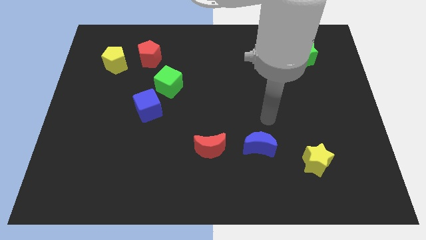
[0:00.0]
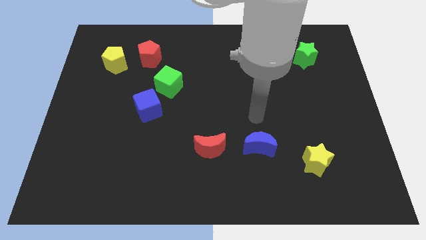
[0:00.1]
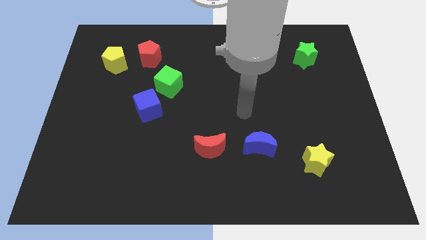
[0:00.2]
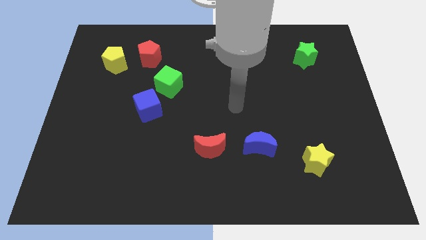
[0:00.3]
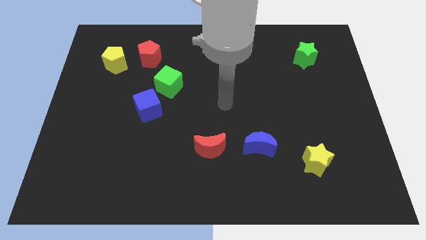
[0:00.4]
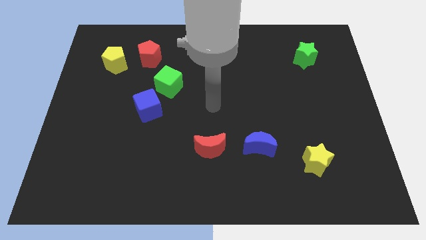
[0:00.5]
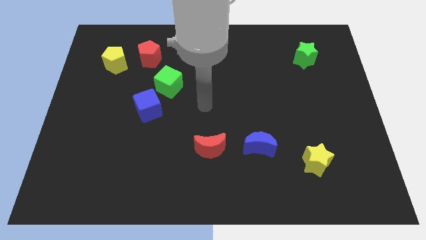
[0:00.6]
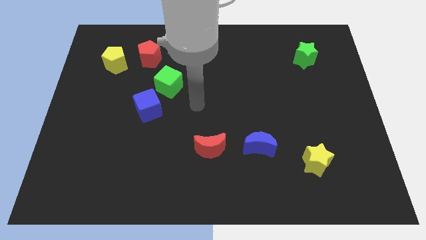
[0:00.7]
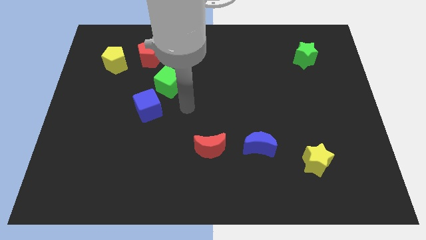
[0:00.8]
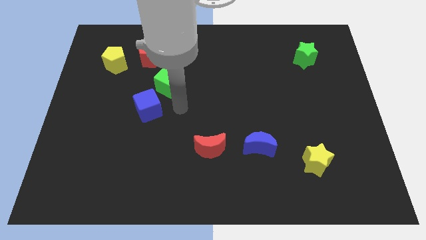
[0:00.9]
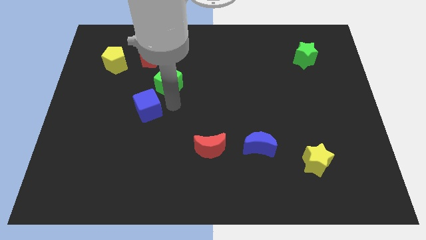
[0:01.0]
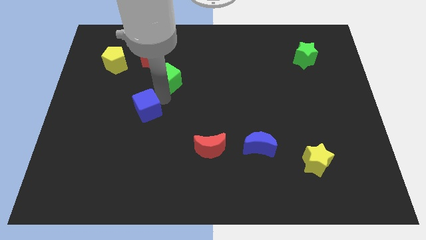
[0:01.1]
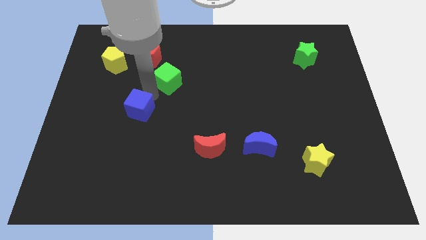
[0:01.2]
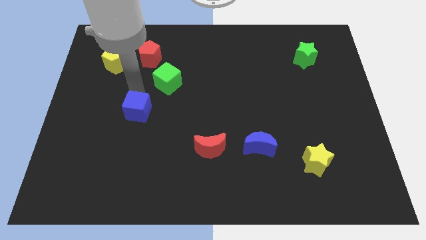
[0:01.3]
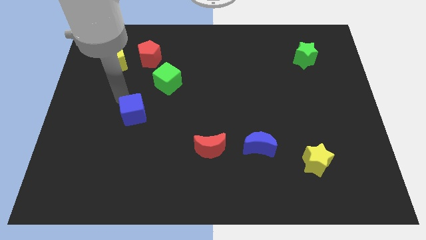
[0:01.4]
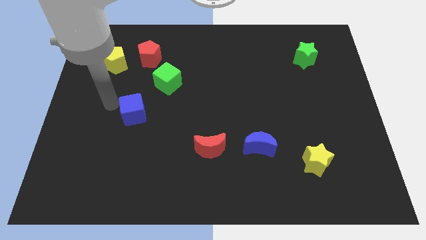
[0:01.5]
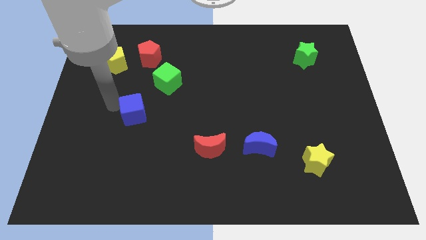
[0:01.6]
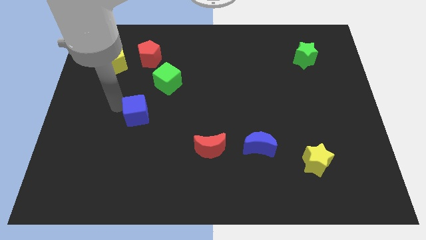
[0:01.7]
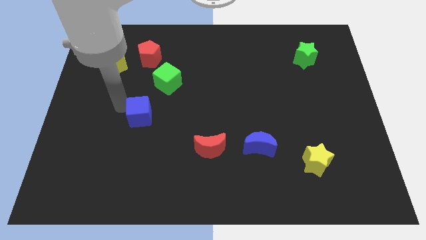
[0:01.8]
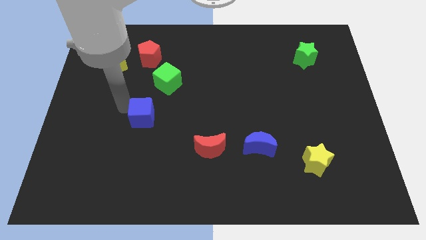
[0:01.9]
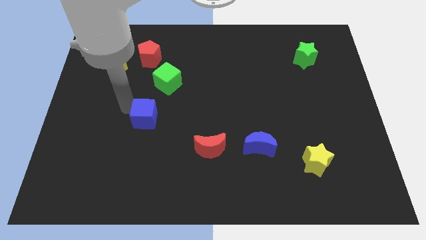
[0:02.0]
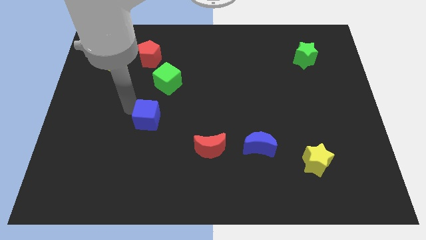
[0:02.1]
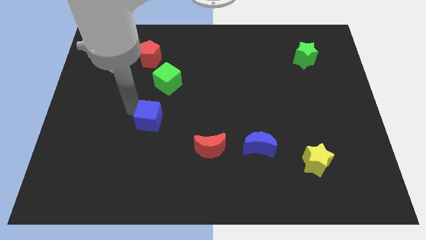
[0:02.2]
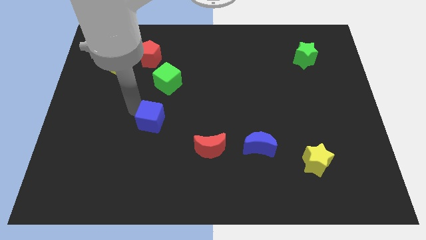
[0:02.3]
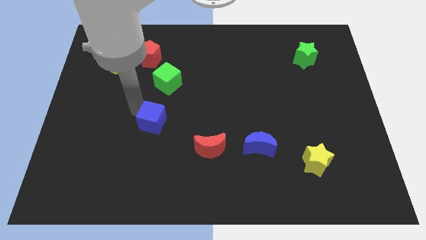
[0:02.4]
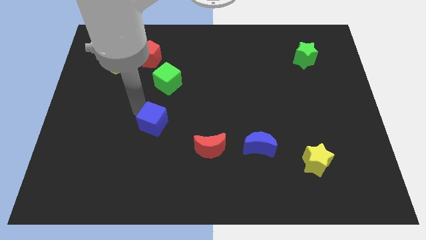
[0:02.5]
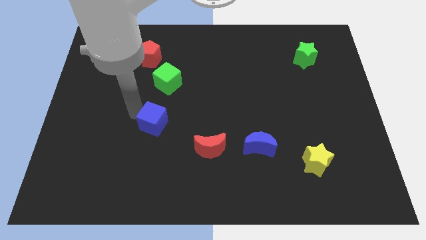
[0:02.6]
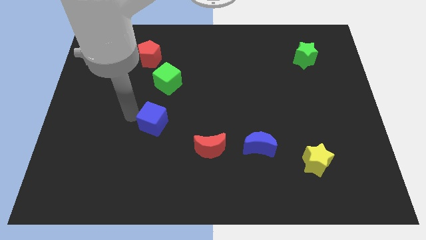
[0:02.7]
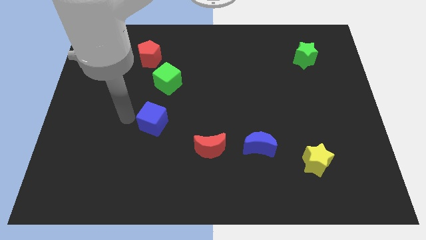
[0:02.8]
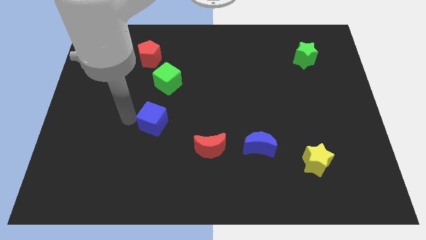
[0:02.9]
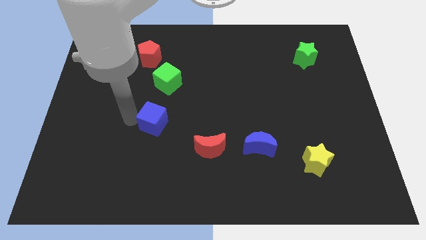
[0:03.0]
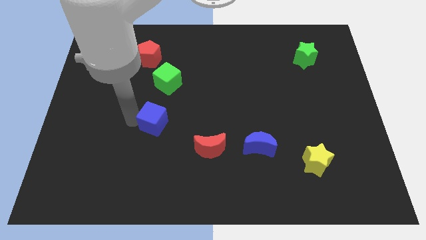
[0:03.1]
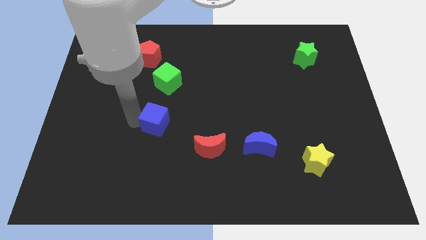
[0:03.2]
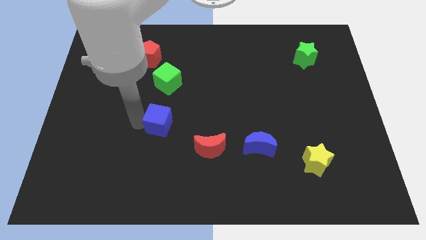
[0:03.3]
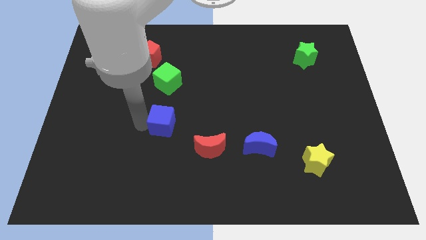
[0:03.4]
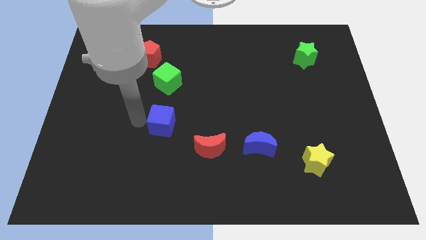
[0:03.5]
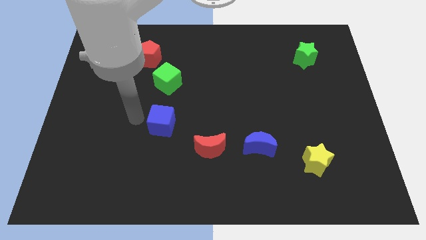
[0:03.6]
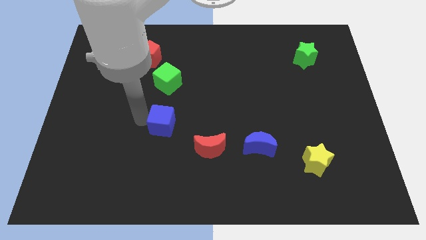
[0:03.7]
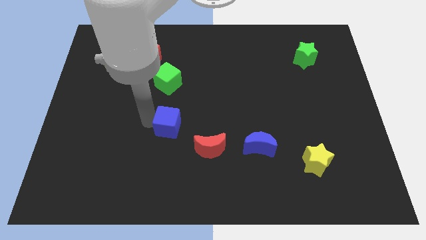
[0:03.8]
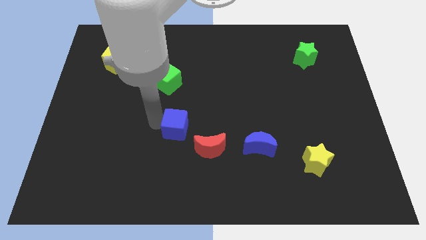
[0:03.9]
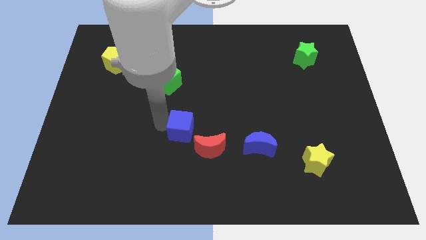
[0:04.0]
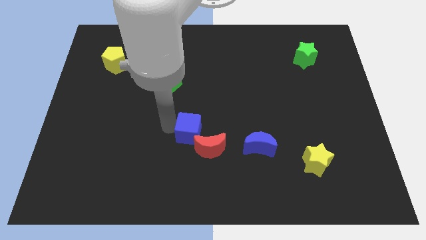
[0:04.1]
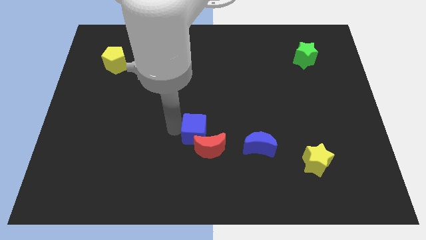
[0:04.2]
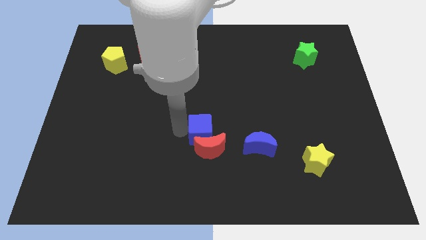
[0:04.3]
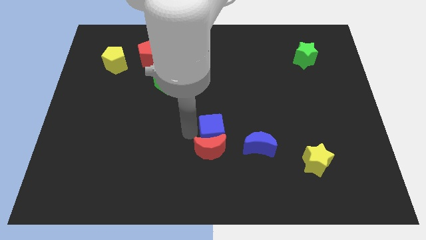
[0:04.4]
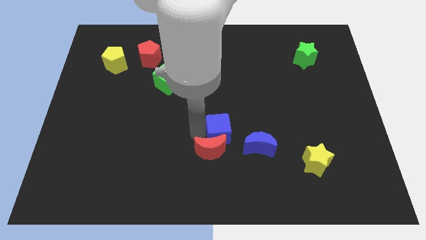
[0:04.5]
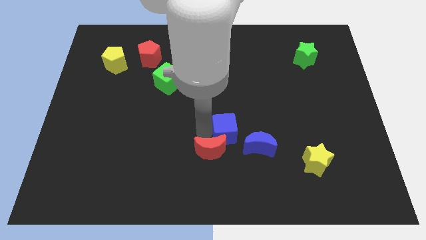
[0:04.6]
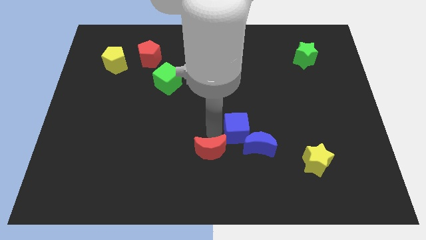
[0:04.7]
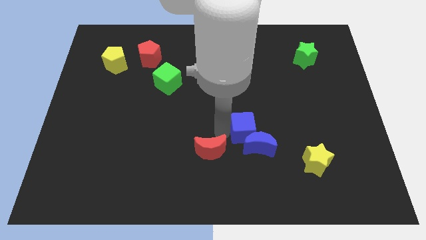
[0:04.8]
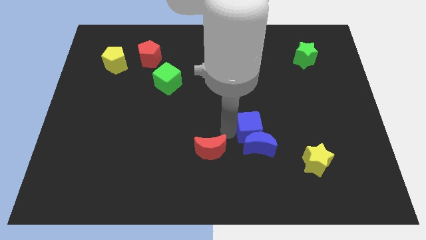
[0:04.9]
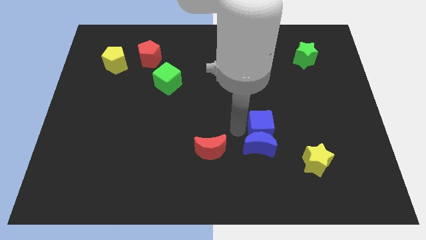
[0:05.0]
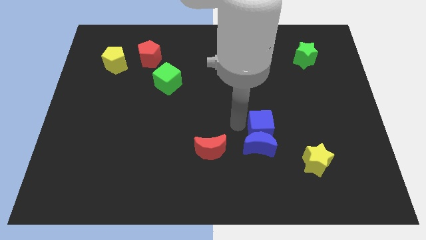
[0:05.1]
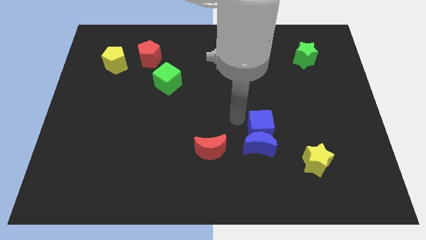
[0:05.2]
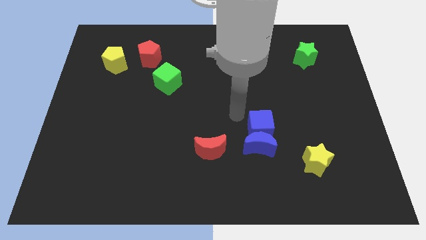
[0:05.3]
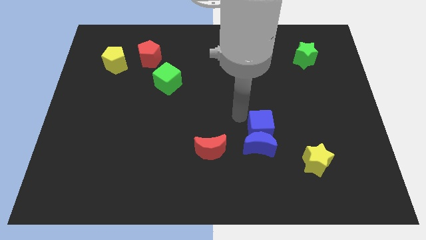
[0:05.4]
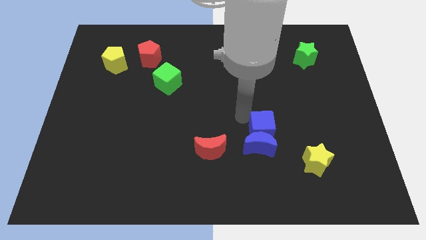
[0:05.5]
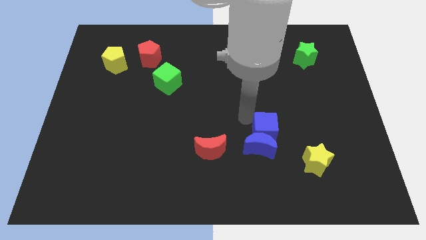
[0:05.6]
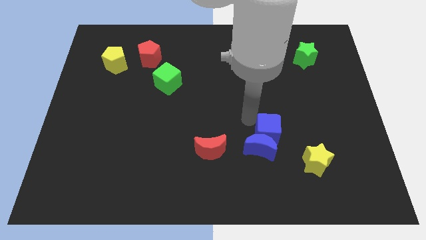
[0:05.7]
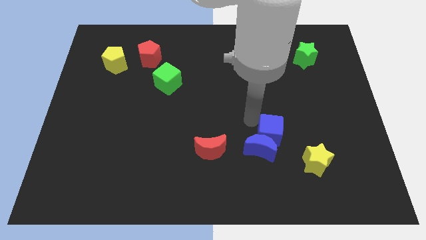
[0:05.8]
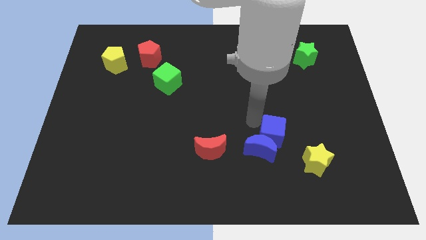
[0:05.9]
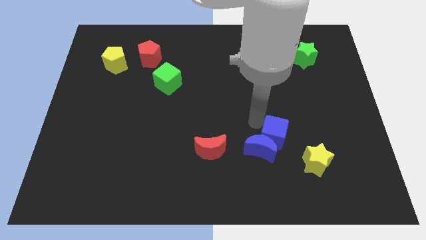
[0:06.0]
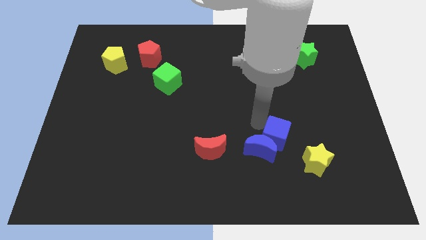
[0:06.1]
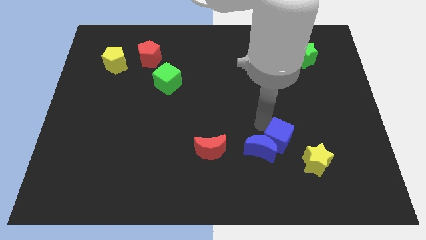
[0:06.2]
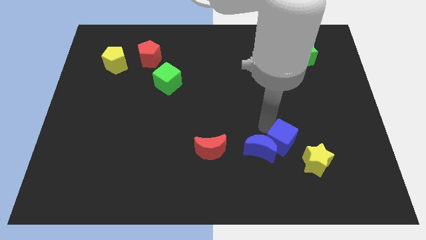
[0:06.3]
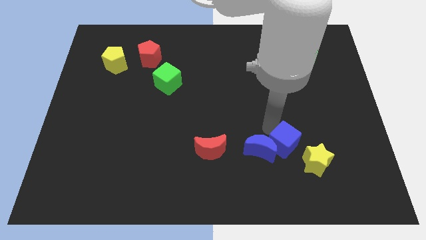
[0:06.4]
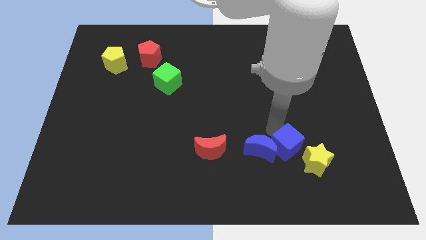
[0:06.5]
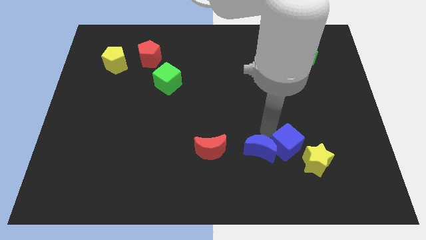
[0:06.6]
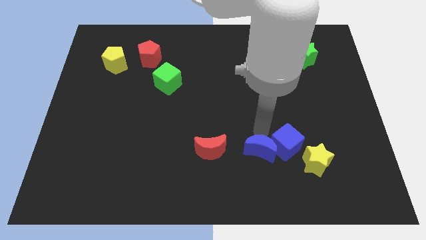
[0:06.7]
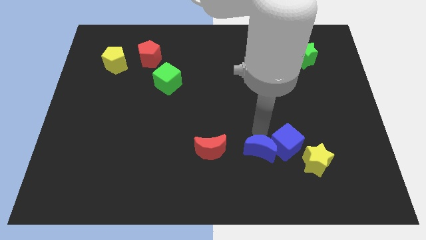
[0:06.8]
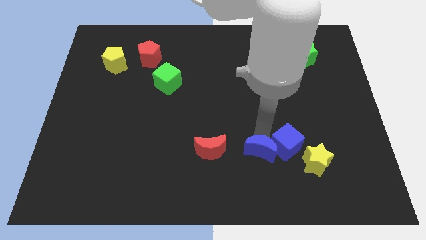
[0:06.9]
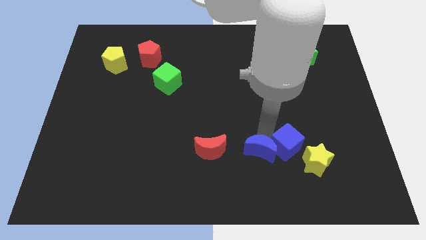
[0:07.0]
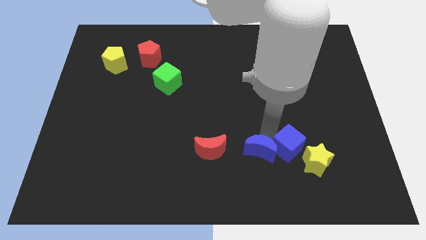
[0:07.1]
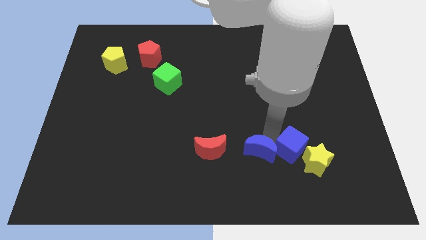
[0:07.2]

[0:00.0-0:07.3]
push the blue cube next to the yellow star
